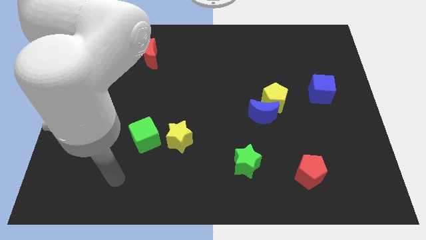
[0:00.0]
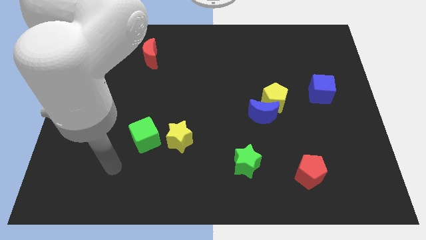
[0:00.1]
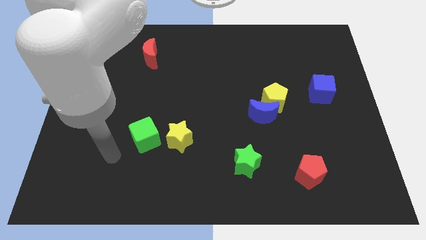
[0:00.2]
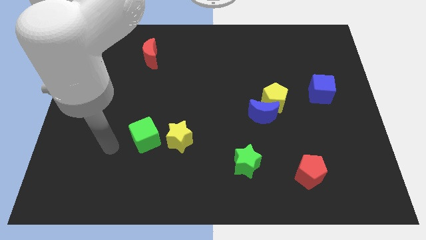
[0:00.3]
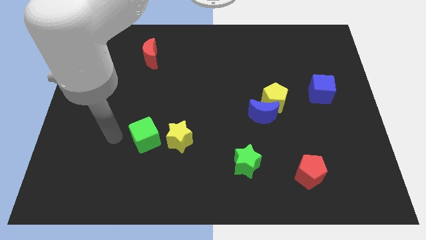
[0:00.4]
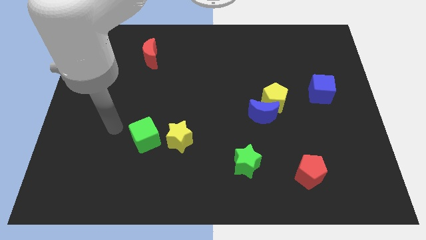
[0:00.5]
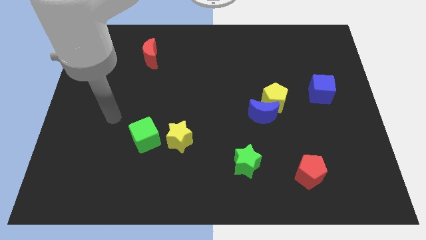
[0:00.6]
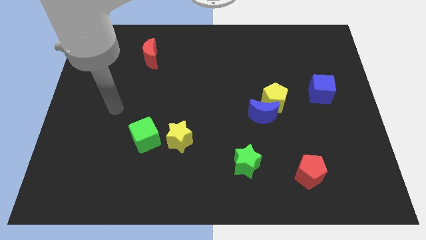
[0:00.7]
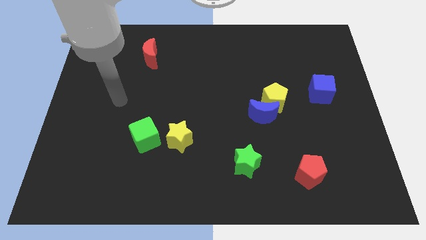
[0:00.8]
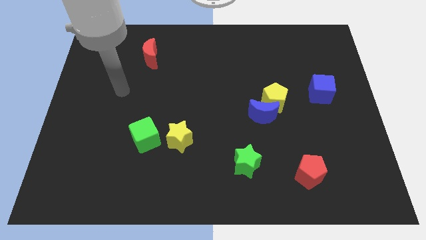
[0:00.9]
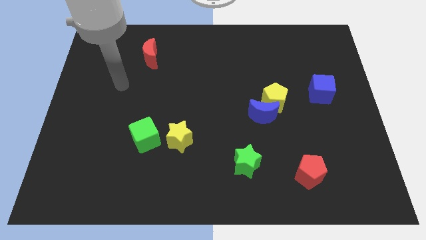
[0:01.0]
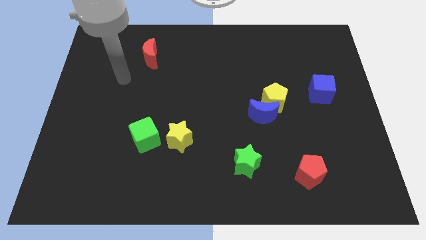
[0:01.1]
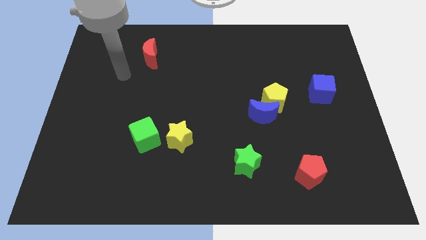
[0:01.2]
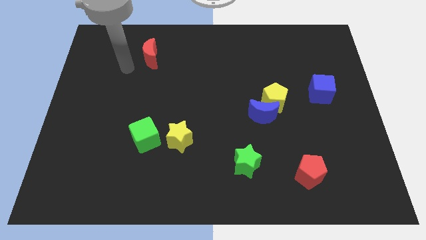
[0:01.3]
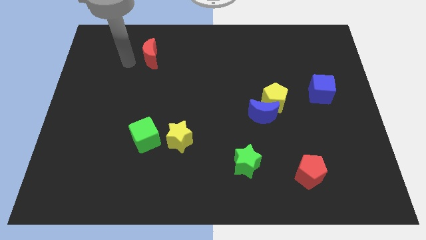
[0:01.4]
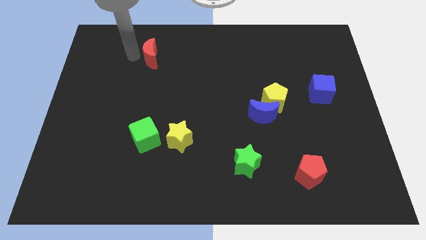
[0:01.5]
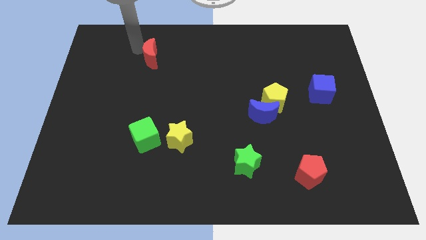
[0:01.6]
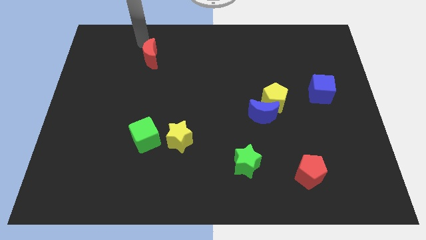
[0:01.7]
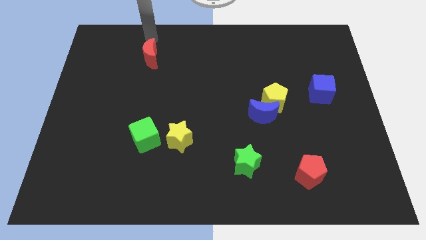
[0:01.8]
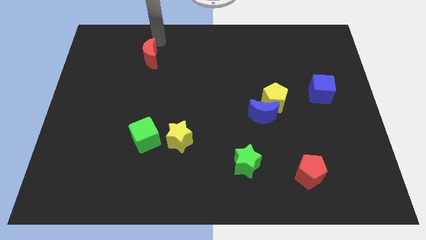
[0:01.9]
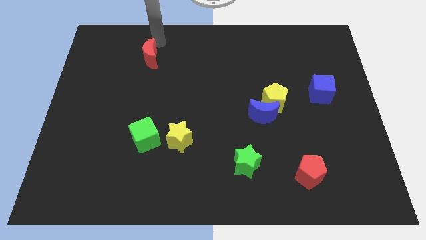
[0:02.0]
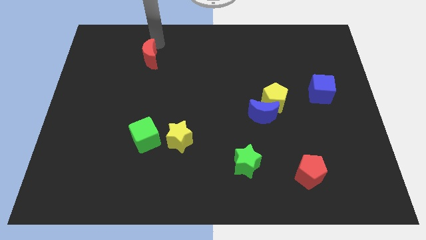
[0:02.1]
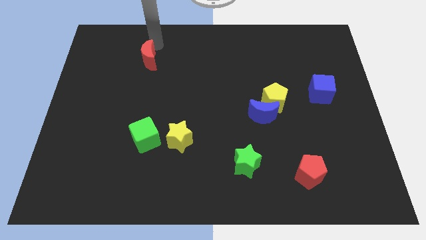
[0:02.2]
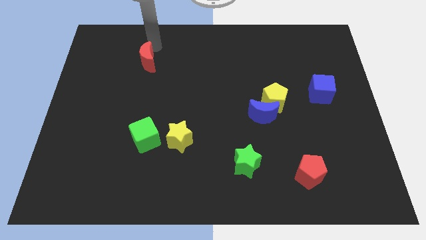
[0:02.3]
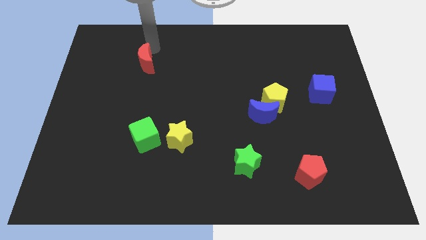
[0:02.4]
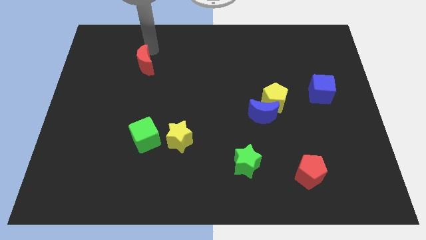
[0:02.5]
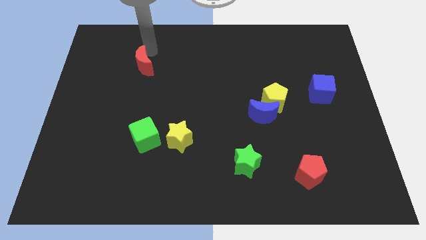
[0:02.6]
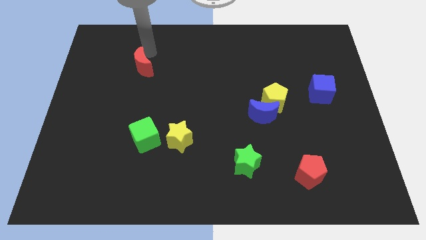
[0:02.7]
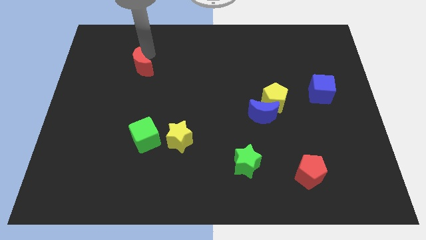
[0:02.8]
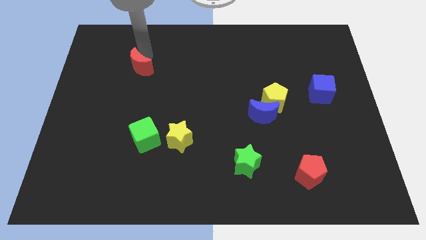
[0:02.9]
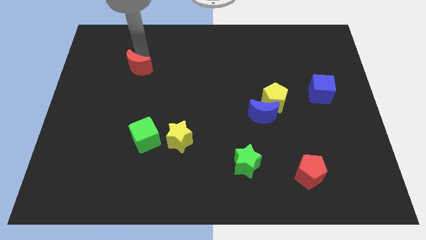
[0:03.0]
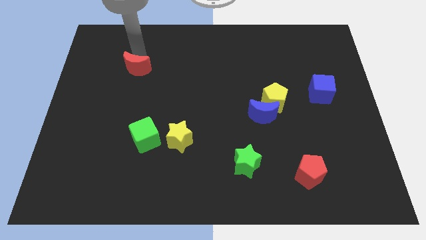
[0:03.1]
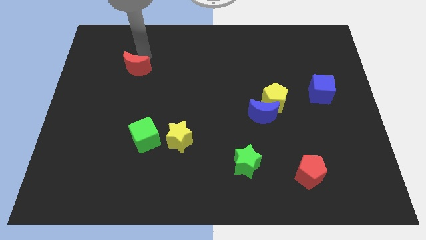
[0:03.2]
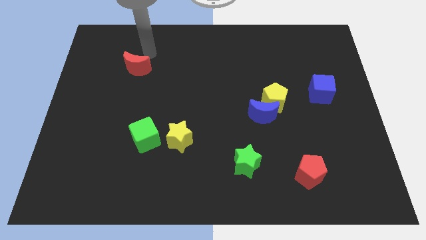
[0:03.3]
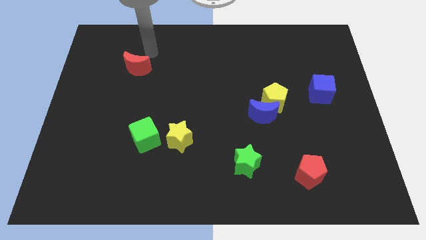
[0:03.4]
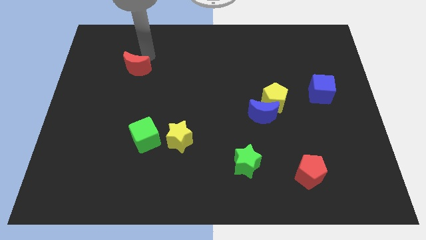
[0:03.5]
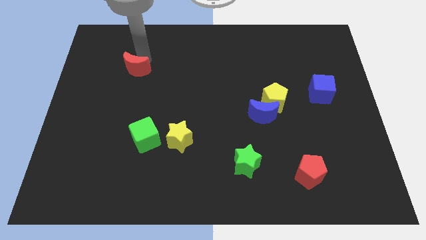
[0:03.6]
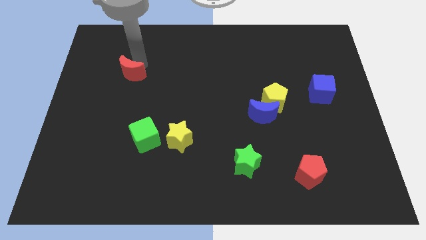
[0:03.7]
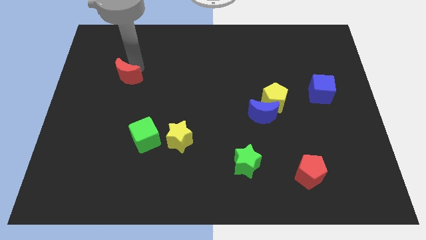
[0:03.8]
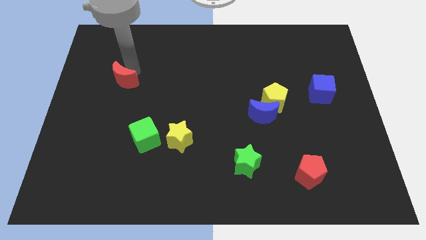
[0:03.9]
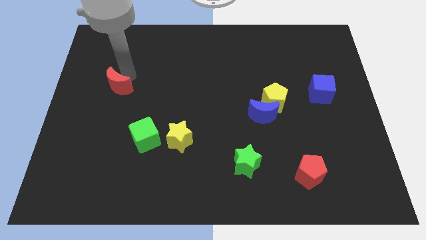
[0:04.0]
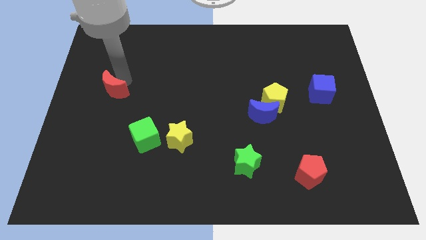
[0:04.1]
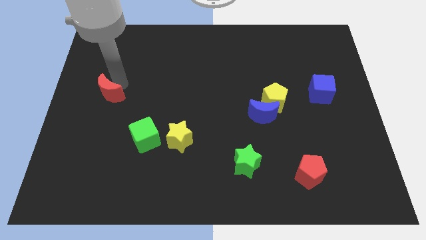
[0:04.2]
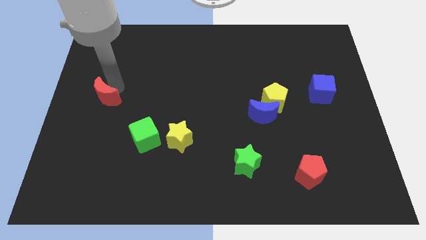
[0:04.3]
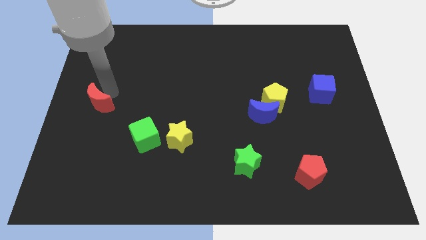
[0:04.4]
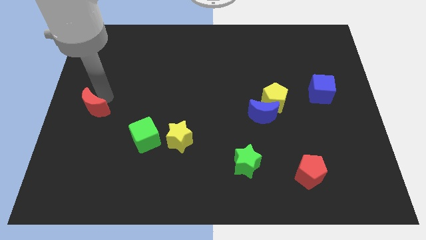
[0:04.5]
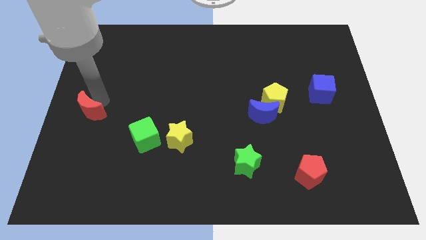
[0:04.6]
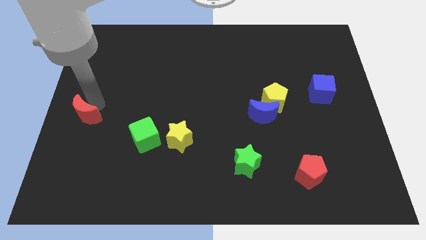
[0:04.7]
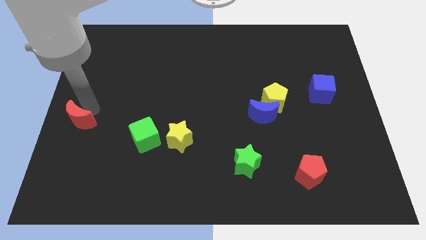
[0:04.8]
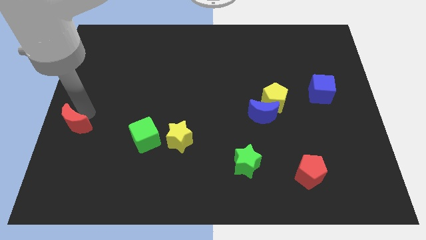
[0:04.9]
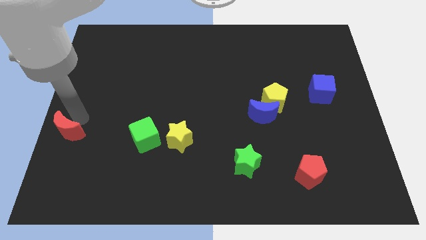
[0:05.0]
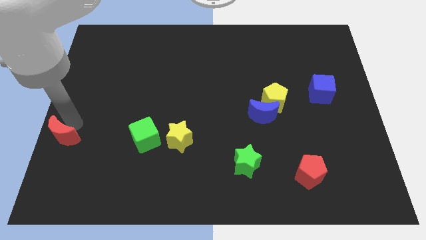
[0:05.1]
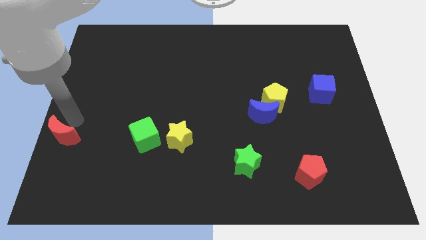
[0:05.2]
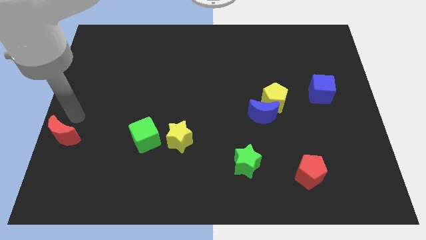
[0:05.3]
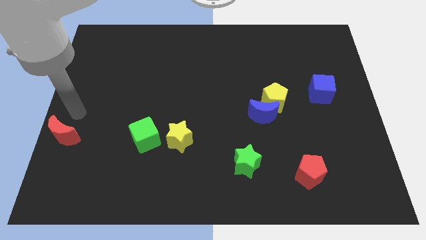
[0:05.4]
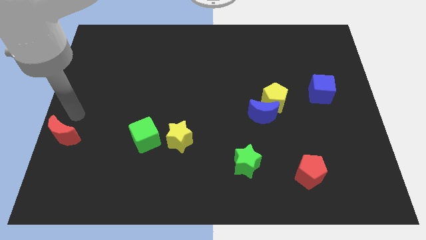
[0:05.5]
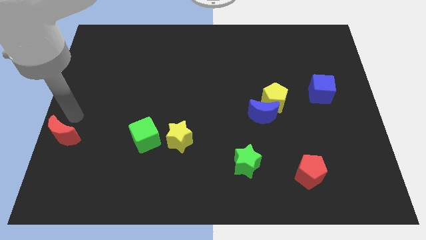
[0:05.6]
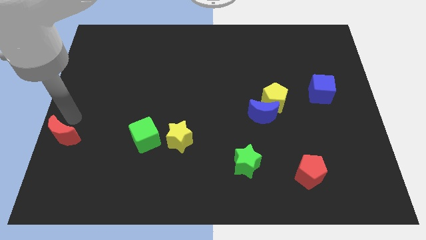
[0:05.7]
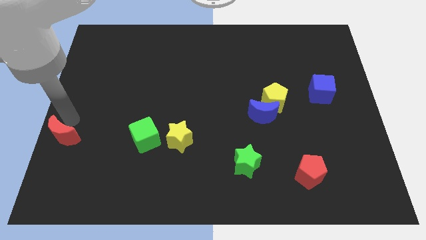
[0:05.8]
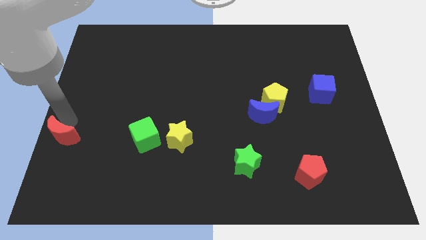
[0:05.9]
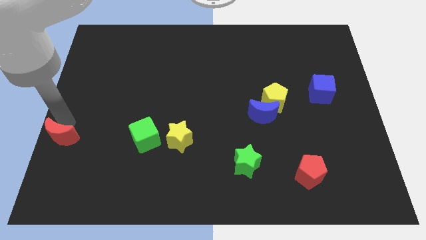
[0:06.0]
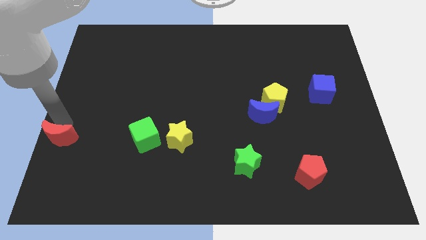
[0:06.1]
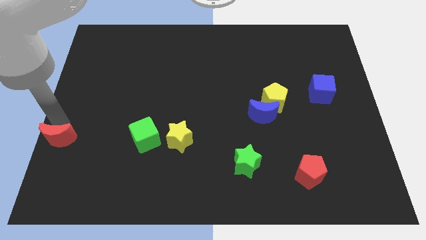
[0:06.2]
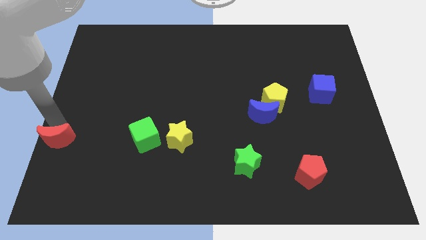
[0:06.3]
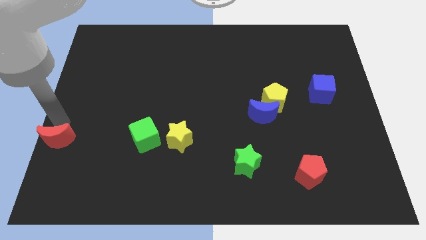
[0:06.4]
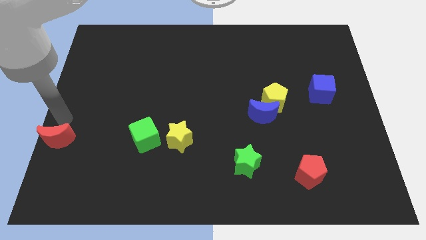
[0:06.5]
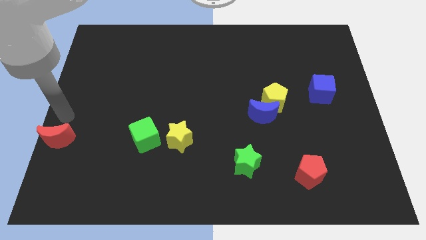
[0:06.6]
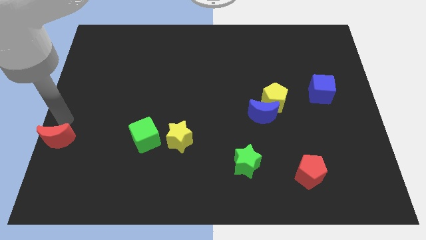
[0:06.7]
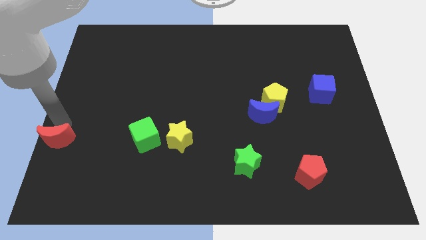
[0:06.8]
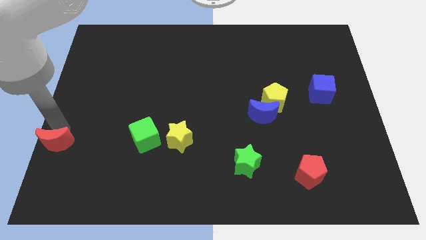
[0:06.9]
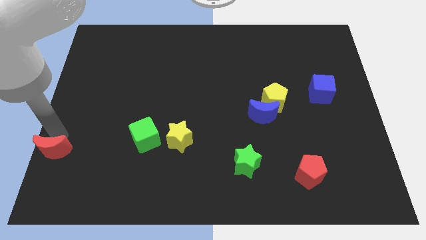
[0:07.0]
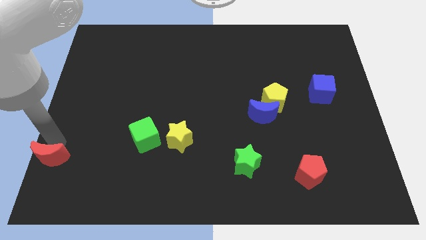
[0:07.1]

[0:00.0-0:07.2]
move the red moon to the bottom left corner
